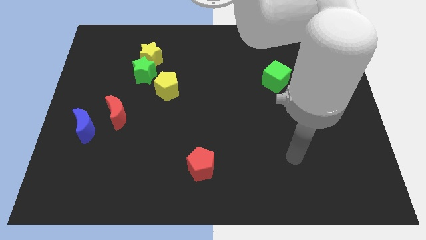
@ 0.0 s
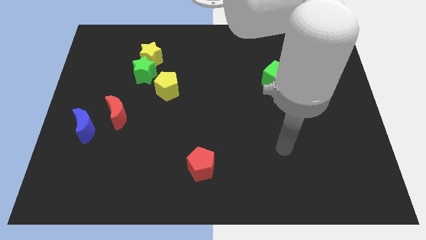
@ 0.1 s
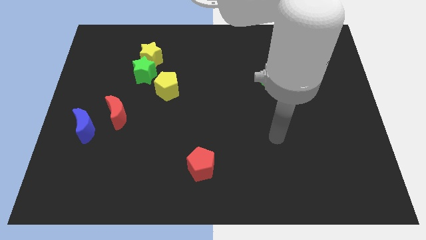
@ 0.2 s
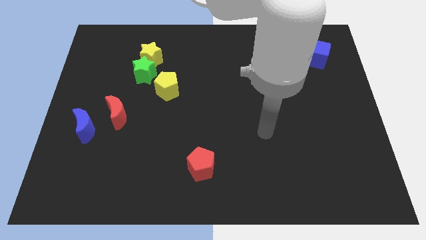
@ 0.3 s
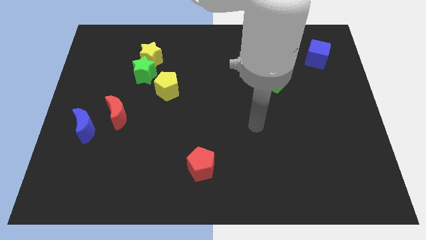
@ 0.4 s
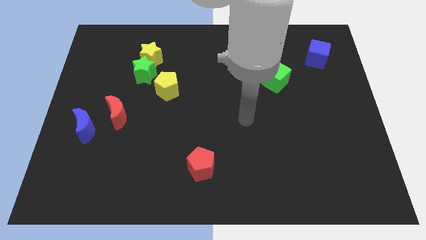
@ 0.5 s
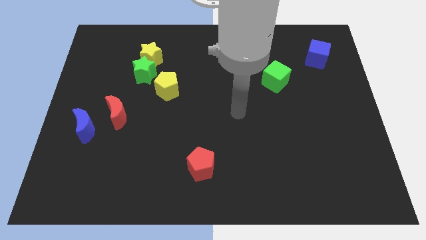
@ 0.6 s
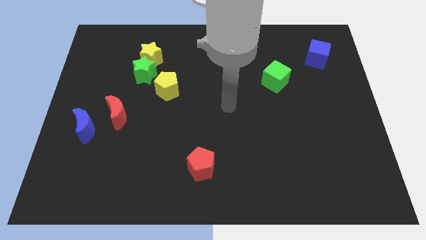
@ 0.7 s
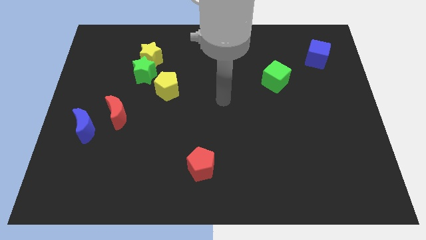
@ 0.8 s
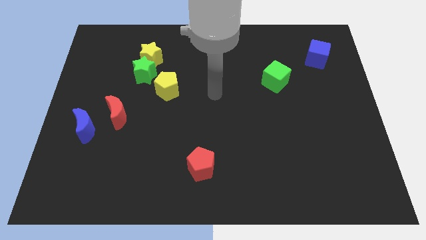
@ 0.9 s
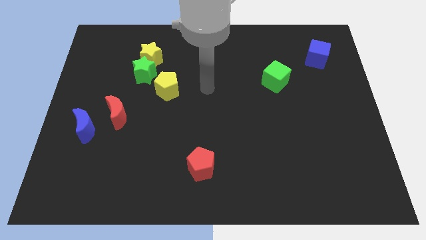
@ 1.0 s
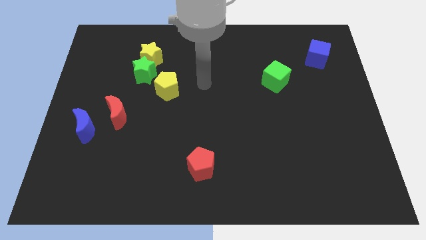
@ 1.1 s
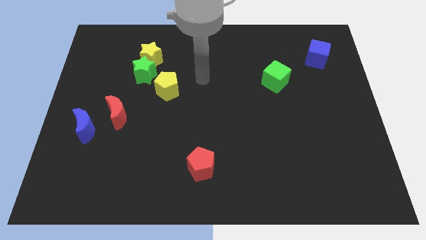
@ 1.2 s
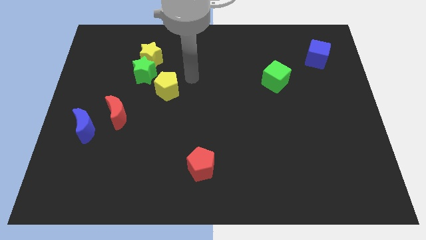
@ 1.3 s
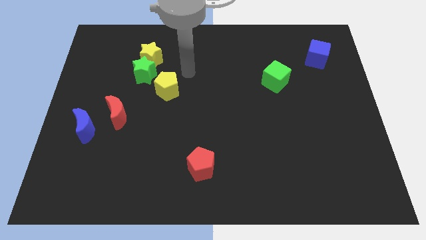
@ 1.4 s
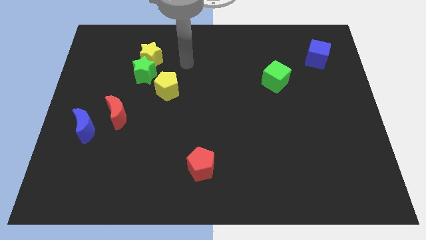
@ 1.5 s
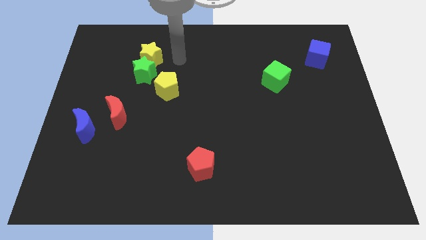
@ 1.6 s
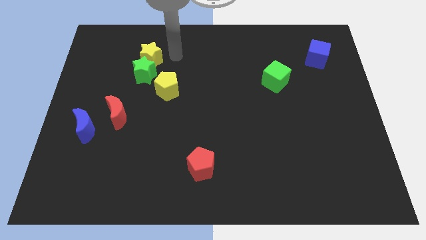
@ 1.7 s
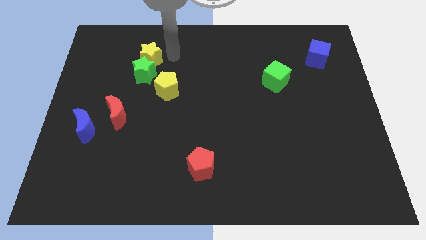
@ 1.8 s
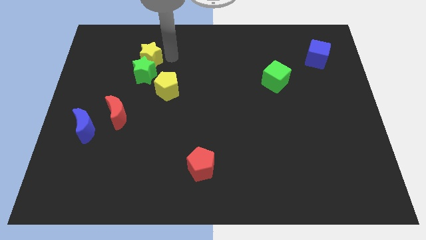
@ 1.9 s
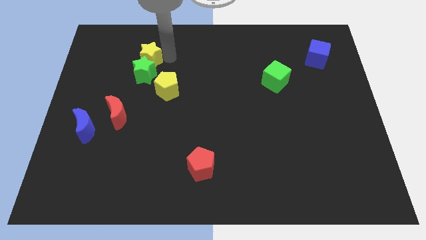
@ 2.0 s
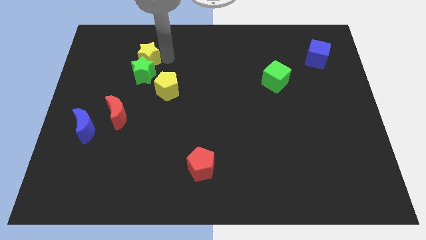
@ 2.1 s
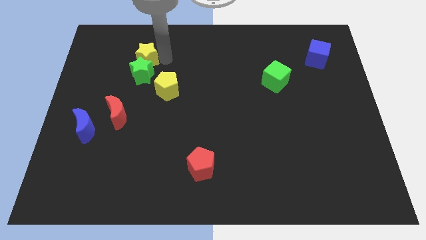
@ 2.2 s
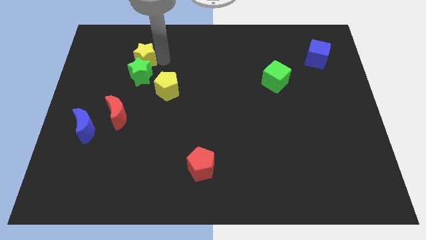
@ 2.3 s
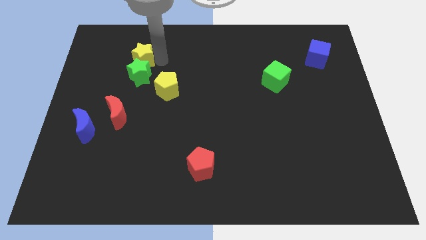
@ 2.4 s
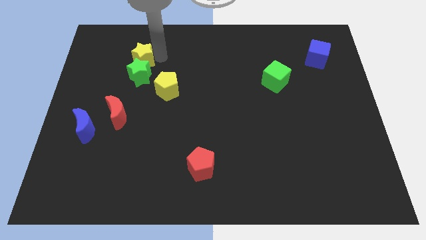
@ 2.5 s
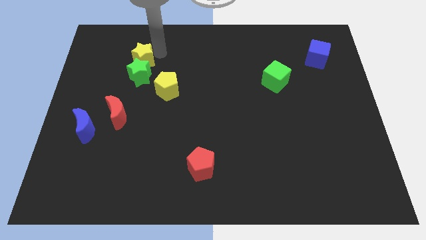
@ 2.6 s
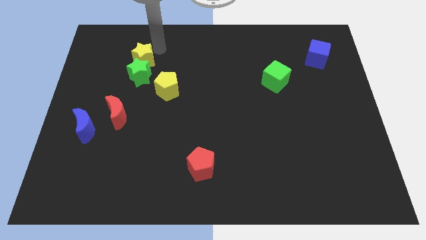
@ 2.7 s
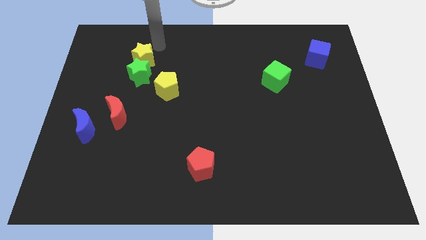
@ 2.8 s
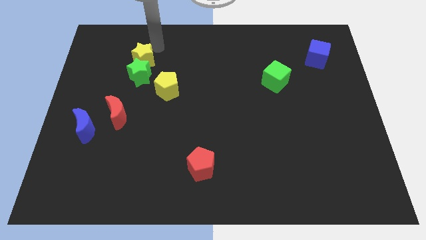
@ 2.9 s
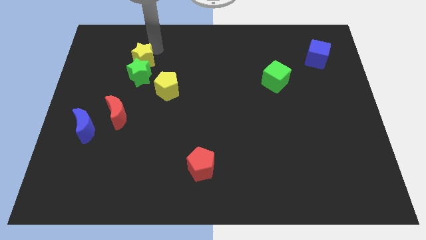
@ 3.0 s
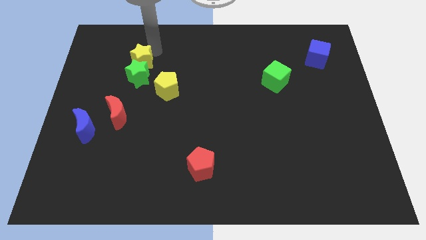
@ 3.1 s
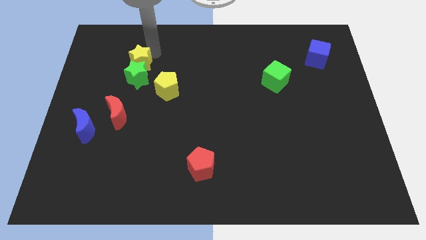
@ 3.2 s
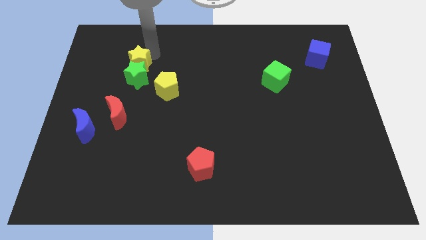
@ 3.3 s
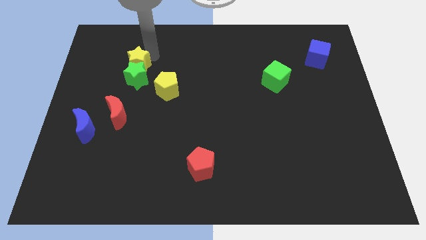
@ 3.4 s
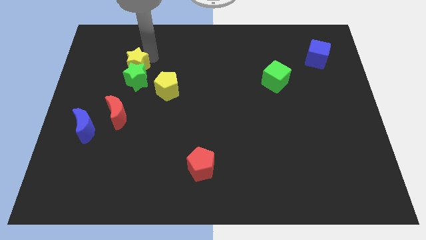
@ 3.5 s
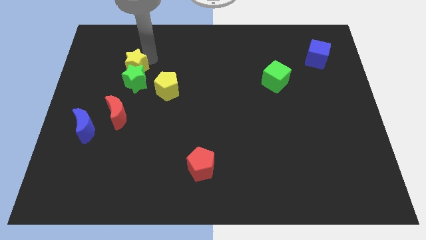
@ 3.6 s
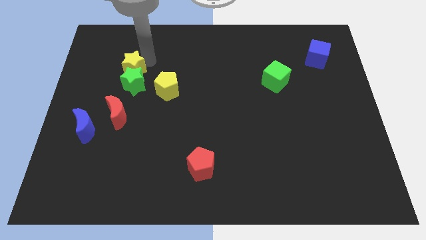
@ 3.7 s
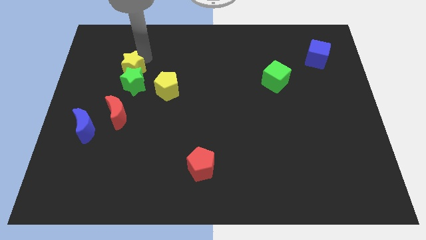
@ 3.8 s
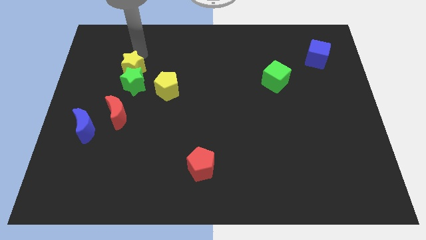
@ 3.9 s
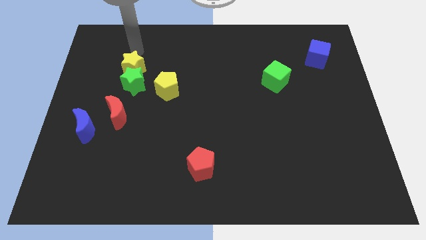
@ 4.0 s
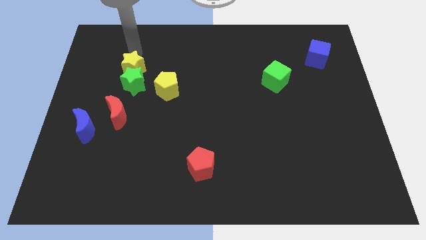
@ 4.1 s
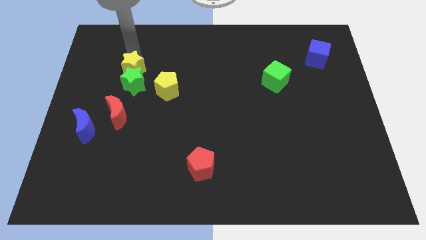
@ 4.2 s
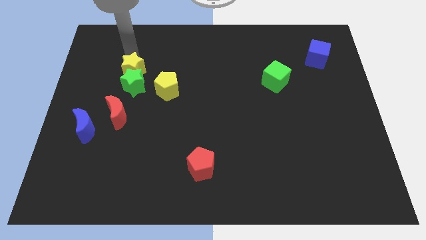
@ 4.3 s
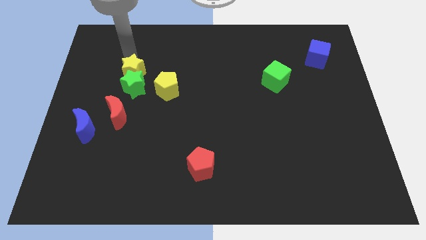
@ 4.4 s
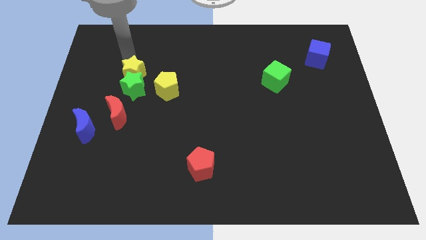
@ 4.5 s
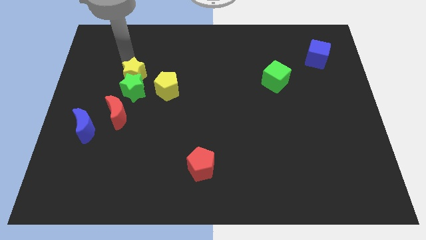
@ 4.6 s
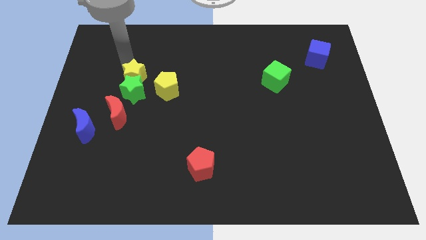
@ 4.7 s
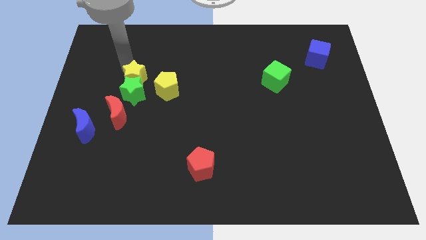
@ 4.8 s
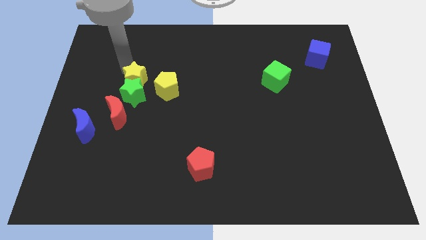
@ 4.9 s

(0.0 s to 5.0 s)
slightly slide the yellow star down

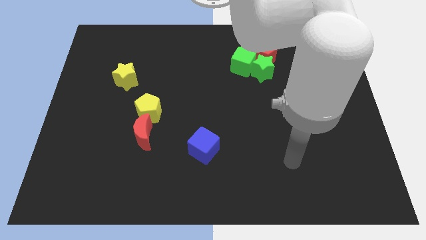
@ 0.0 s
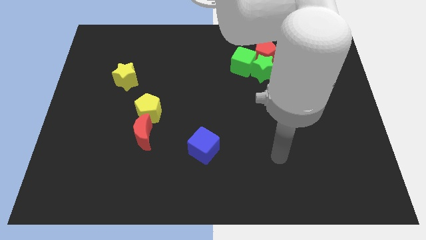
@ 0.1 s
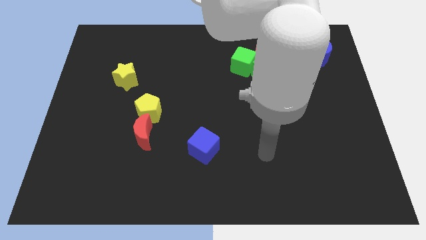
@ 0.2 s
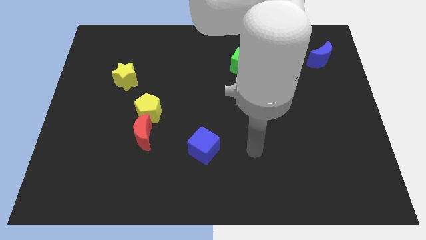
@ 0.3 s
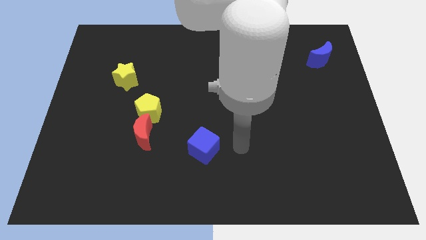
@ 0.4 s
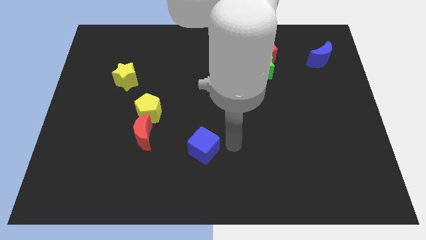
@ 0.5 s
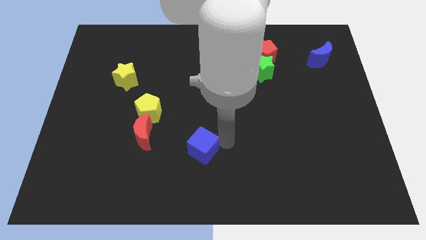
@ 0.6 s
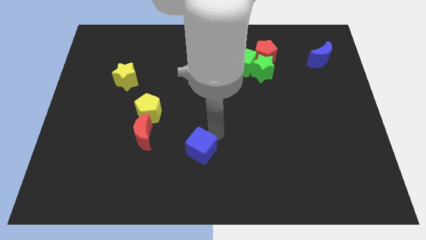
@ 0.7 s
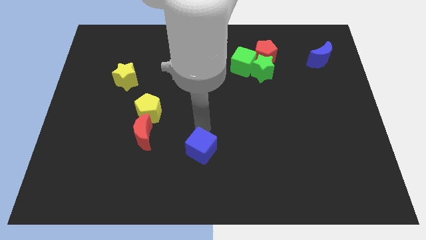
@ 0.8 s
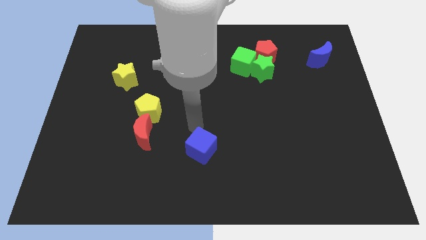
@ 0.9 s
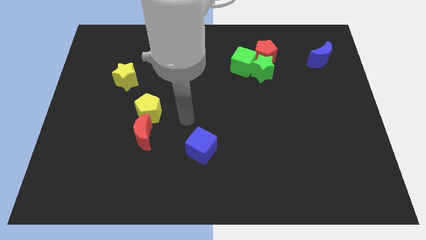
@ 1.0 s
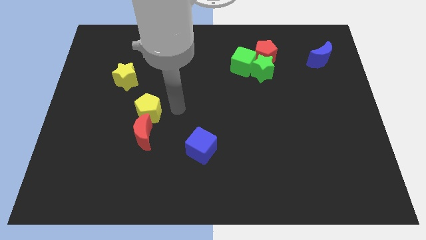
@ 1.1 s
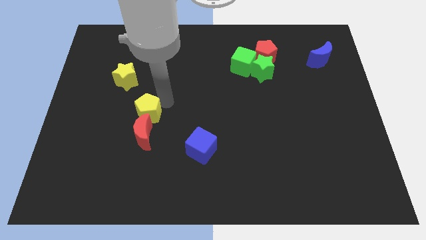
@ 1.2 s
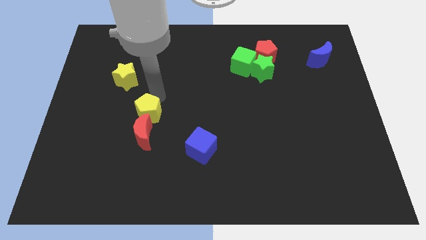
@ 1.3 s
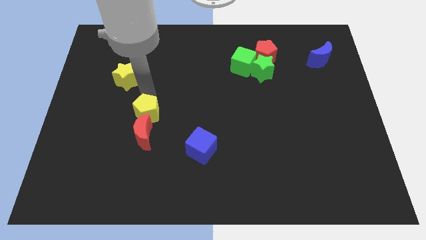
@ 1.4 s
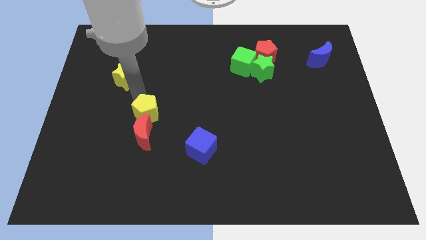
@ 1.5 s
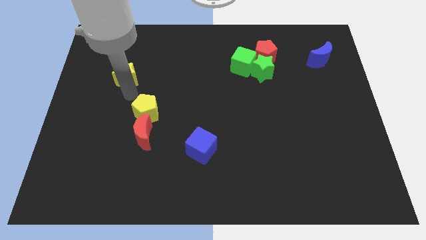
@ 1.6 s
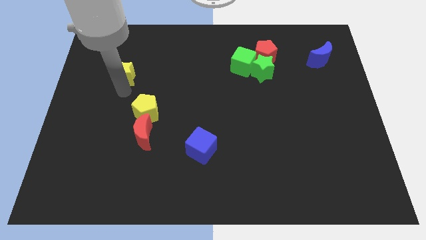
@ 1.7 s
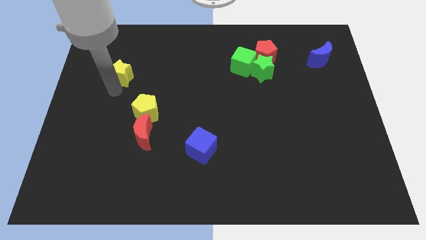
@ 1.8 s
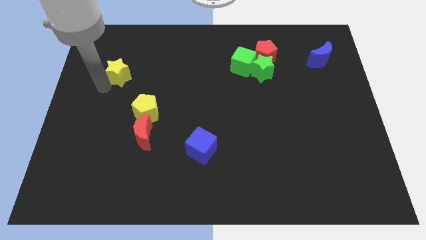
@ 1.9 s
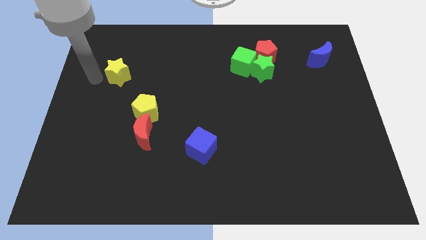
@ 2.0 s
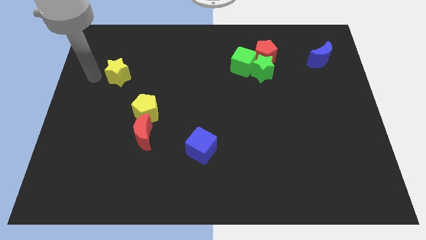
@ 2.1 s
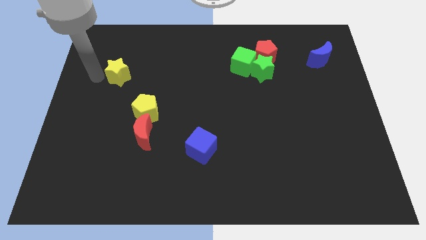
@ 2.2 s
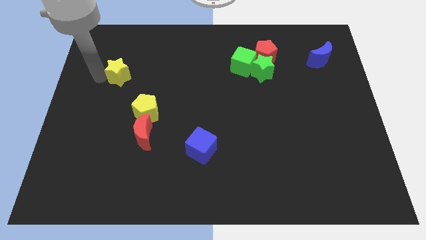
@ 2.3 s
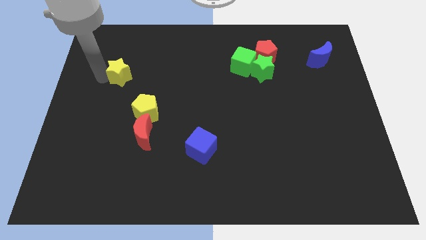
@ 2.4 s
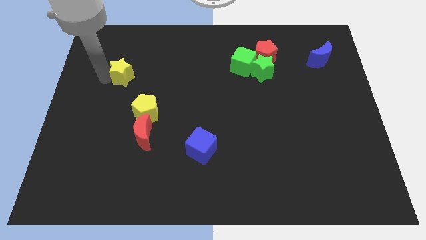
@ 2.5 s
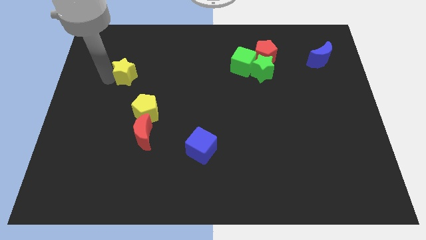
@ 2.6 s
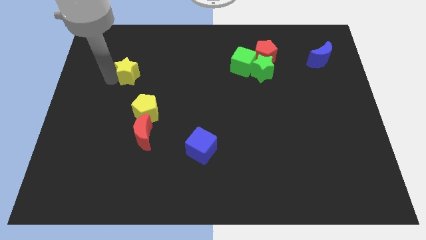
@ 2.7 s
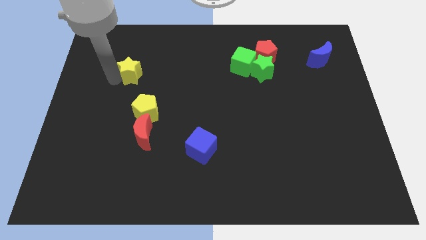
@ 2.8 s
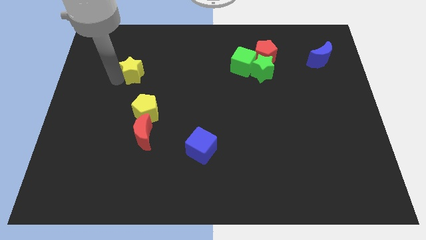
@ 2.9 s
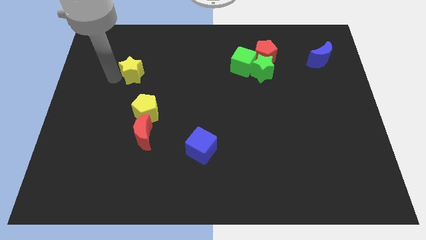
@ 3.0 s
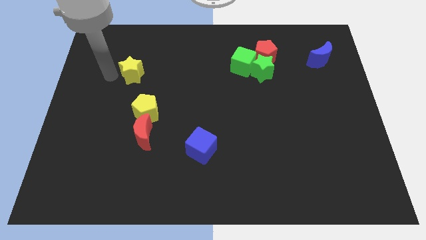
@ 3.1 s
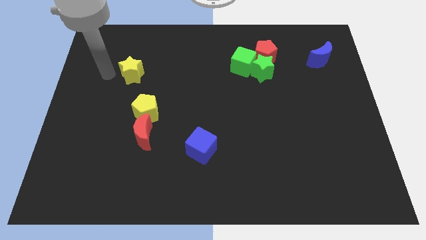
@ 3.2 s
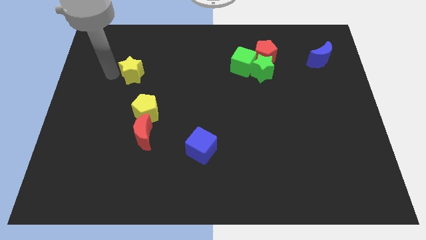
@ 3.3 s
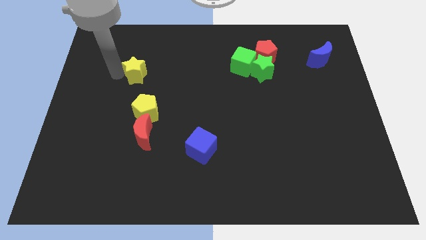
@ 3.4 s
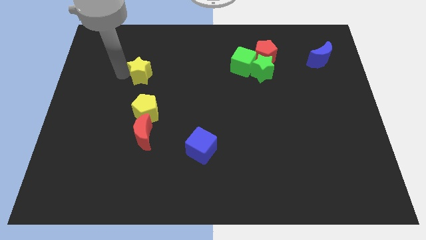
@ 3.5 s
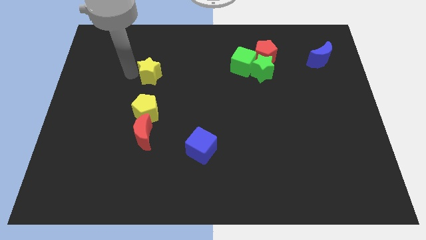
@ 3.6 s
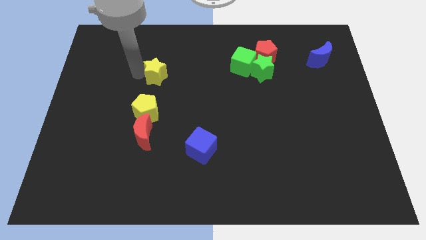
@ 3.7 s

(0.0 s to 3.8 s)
move the yellow star to the right a bit
